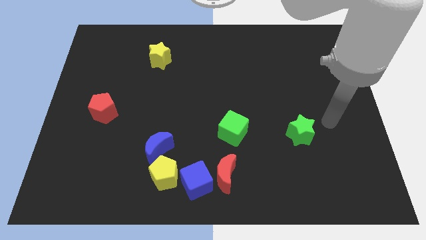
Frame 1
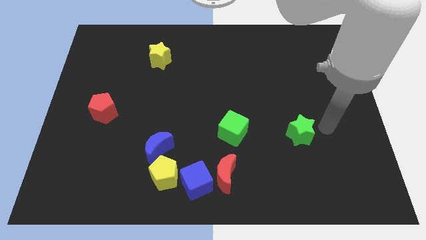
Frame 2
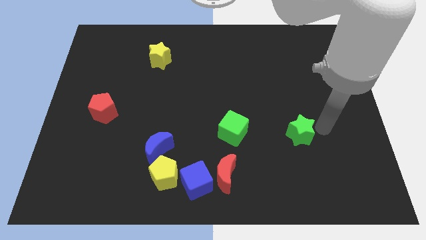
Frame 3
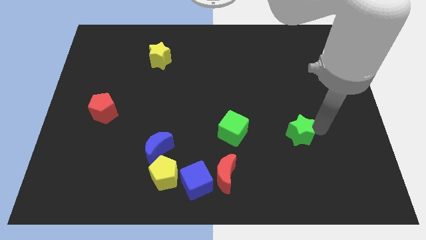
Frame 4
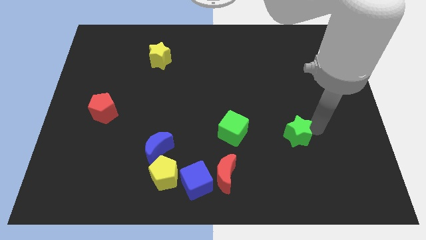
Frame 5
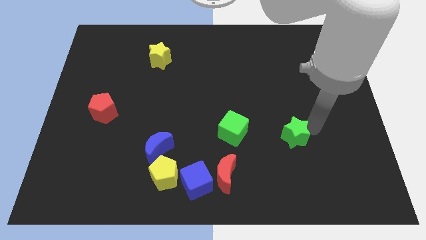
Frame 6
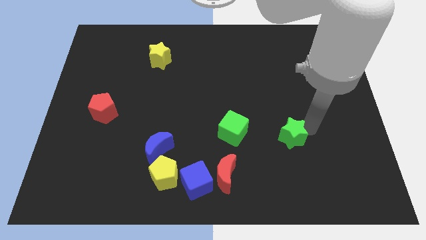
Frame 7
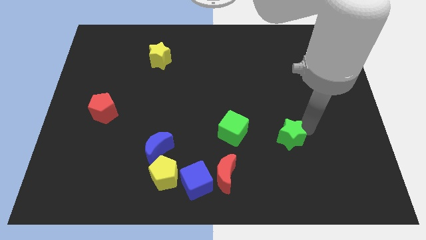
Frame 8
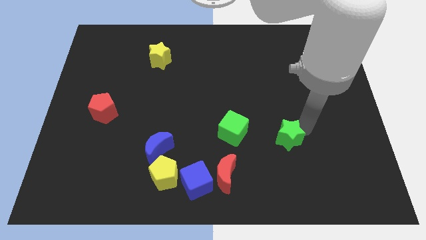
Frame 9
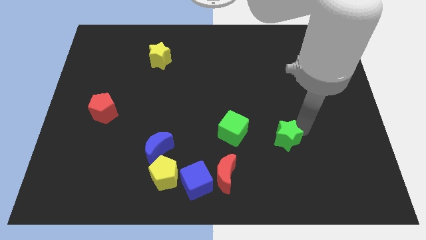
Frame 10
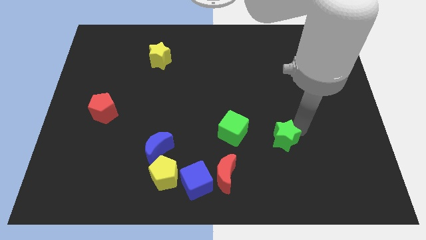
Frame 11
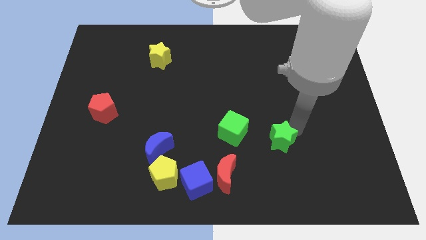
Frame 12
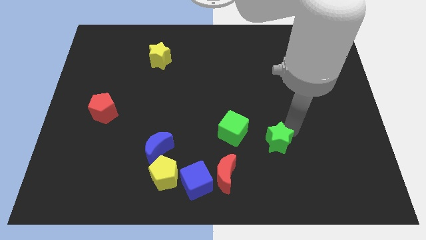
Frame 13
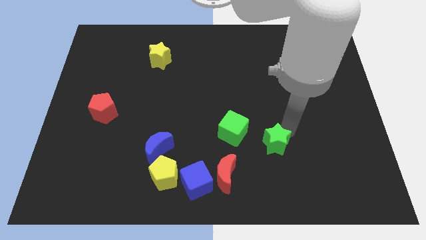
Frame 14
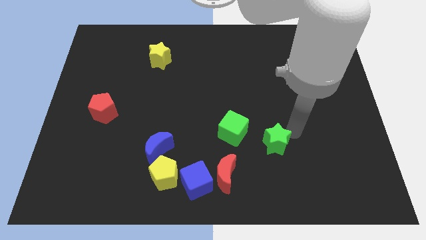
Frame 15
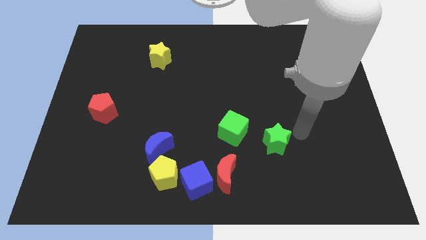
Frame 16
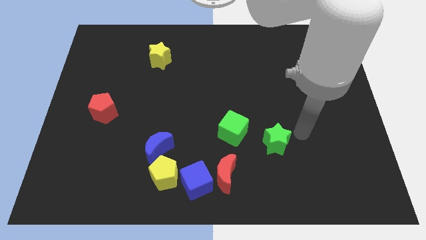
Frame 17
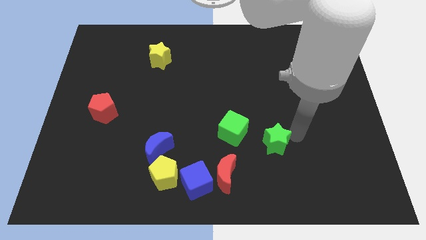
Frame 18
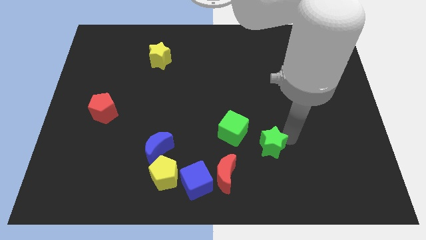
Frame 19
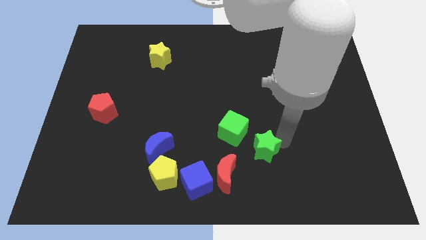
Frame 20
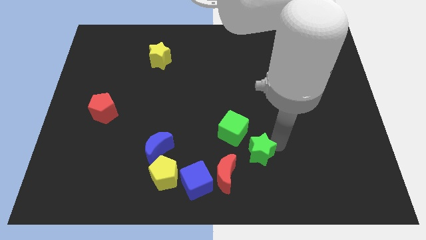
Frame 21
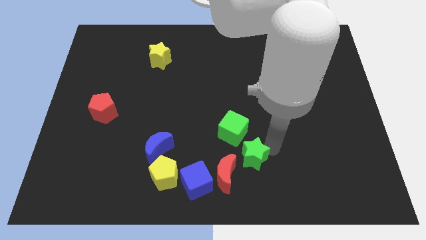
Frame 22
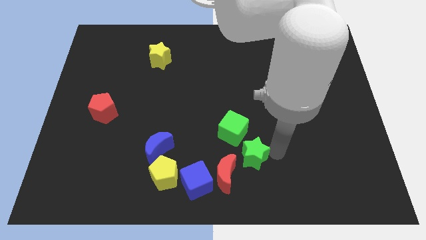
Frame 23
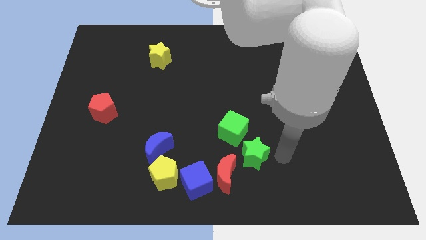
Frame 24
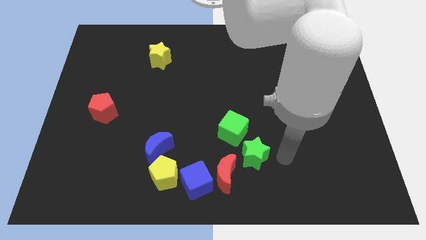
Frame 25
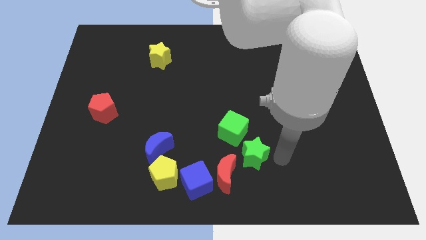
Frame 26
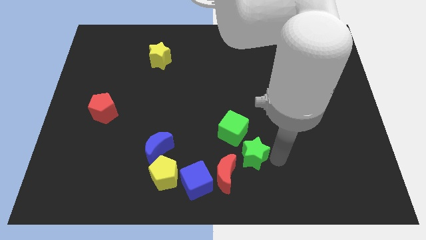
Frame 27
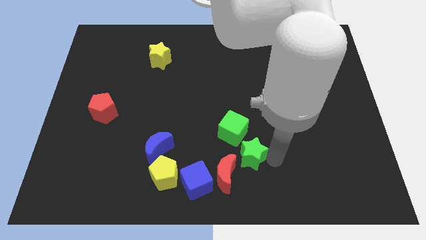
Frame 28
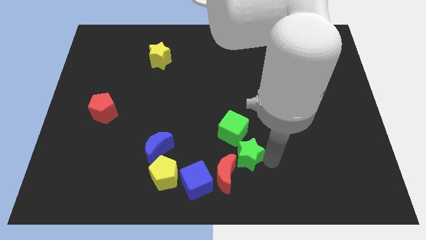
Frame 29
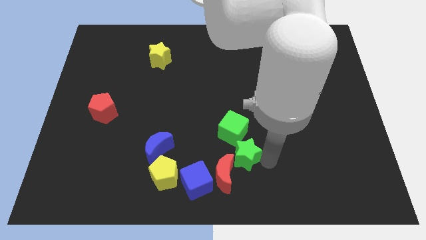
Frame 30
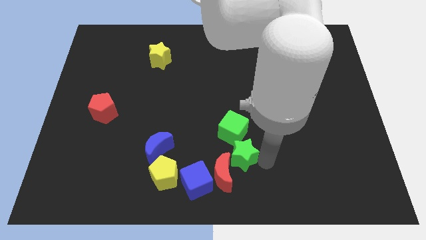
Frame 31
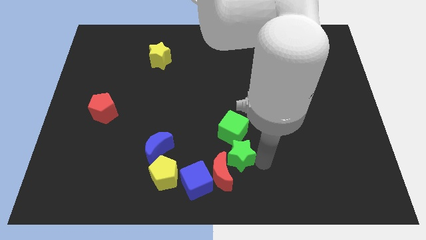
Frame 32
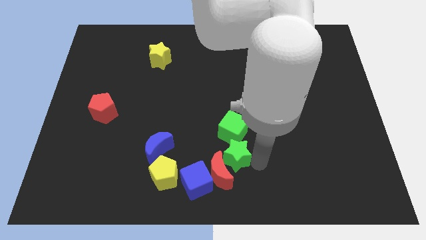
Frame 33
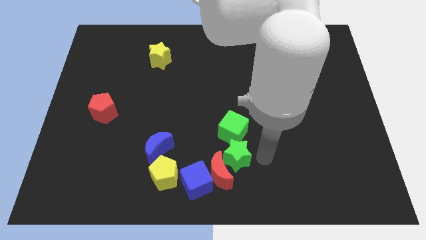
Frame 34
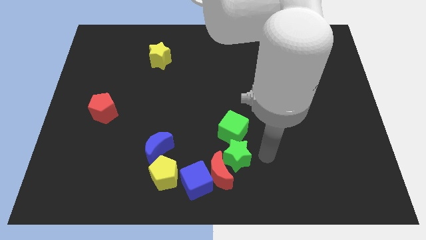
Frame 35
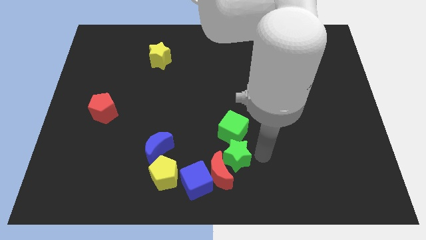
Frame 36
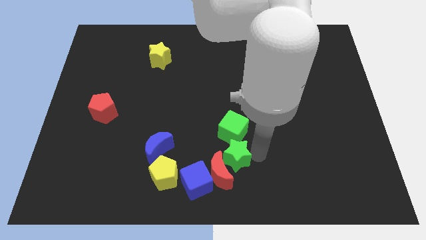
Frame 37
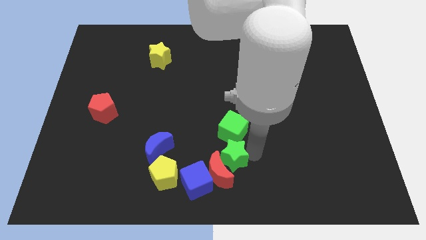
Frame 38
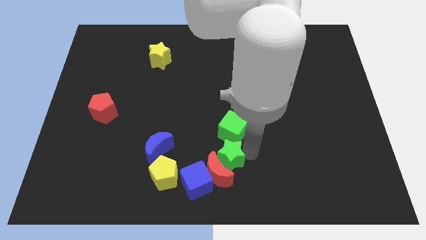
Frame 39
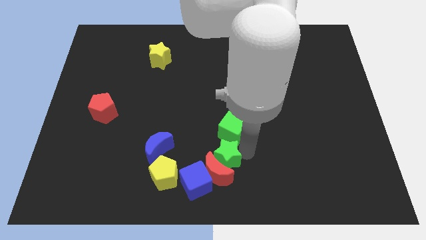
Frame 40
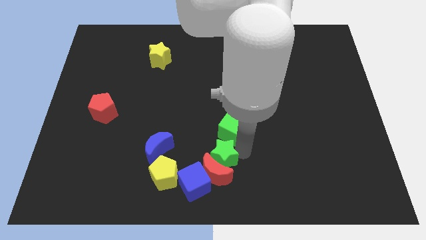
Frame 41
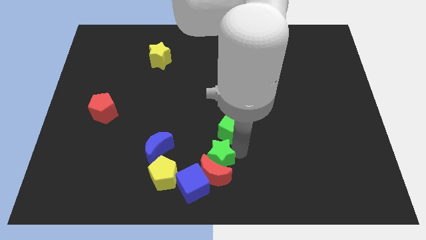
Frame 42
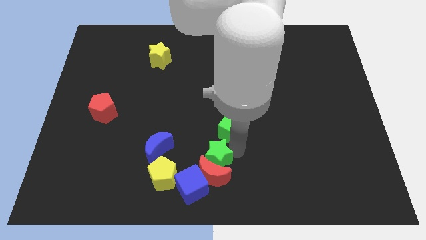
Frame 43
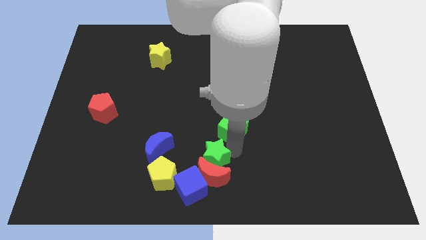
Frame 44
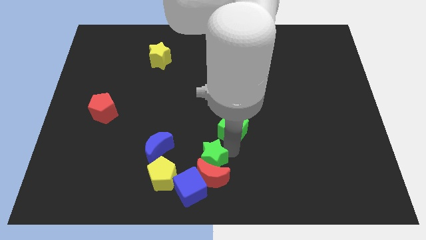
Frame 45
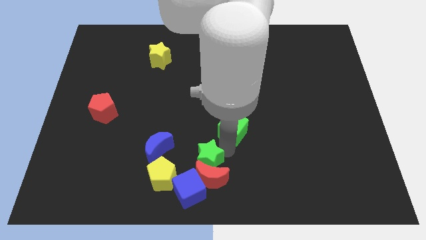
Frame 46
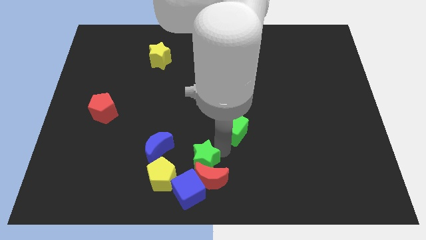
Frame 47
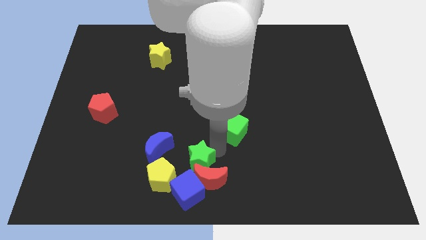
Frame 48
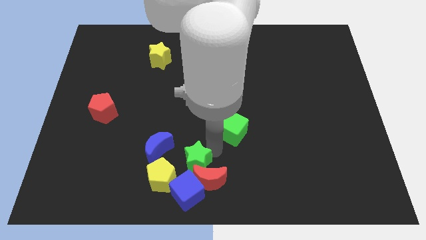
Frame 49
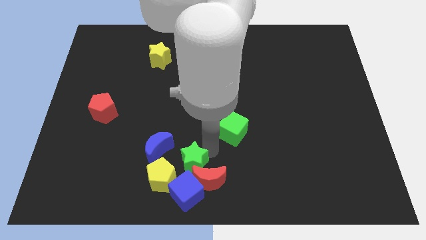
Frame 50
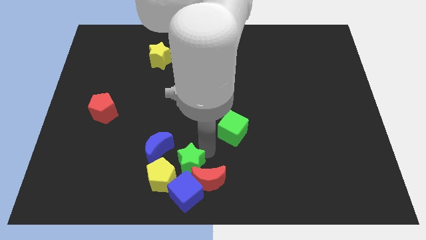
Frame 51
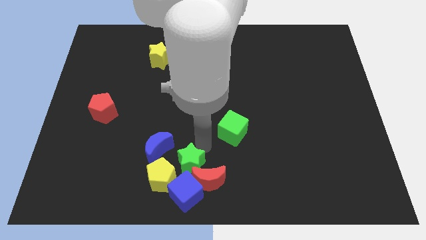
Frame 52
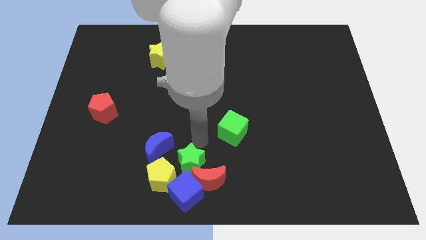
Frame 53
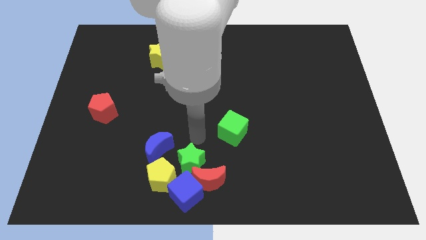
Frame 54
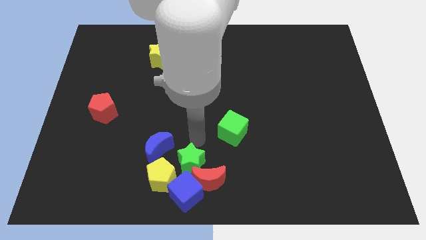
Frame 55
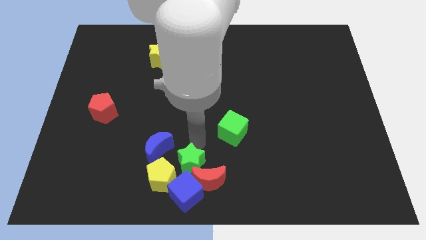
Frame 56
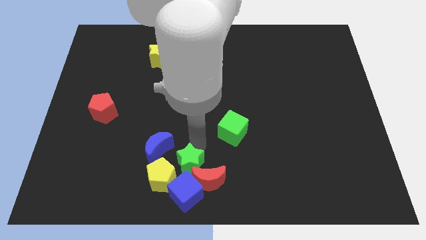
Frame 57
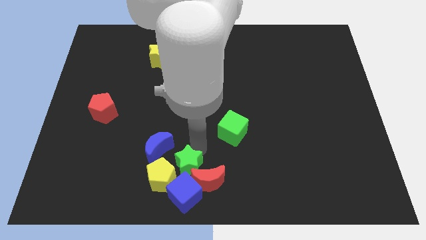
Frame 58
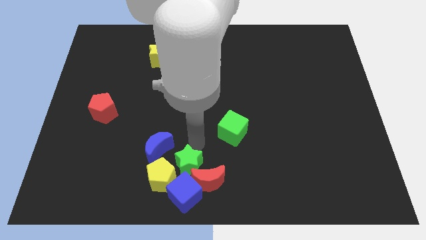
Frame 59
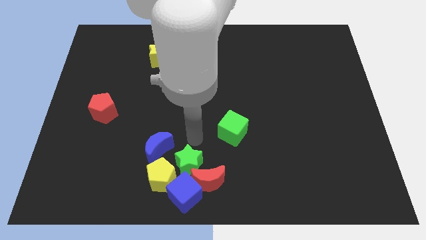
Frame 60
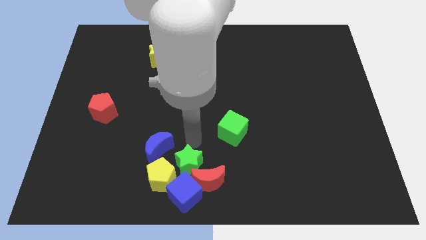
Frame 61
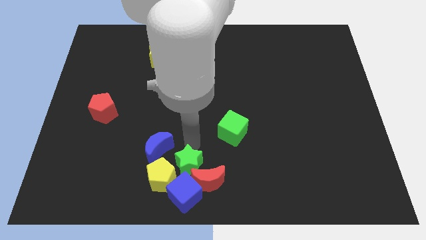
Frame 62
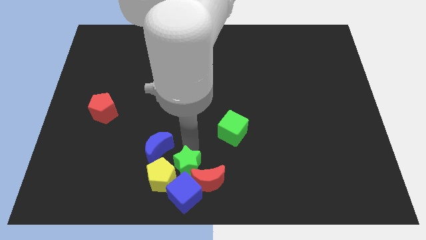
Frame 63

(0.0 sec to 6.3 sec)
put the green star close to the blue cube
